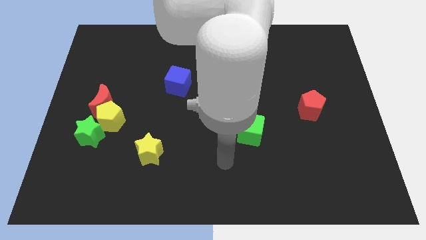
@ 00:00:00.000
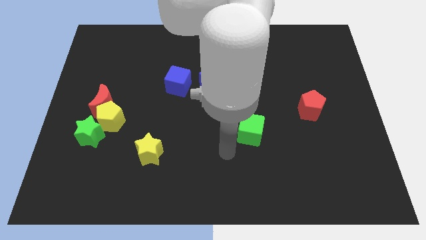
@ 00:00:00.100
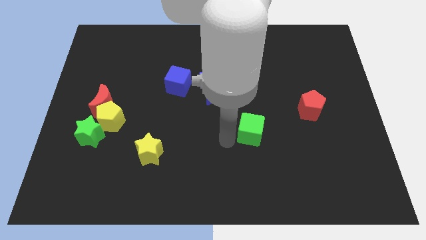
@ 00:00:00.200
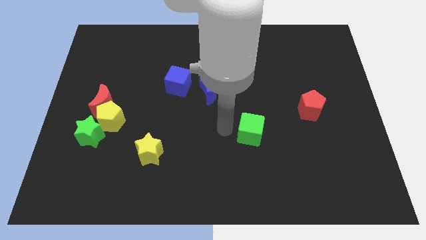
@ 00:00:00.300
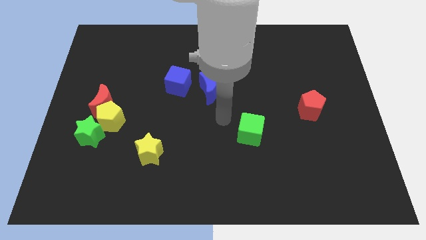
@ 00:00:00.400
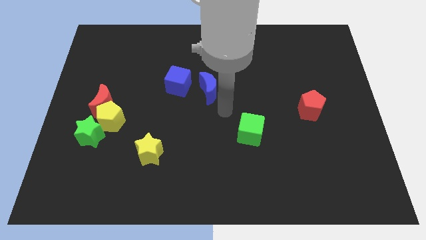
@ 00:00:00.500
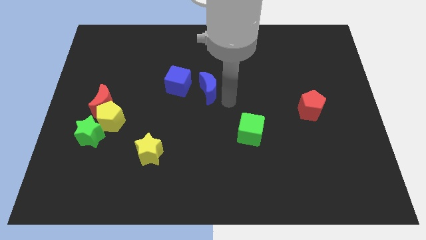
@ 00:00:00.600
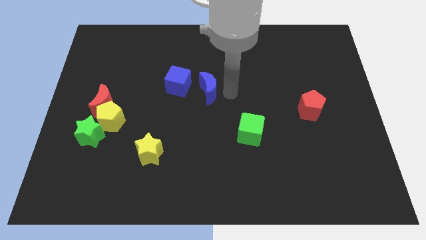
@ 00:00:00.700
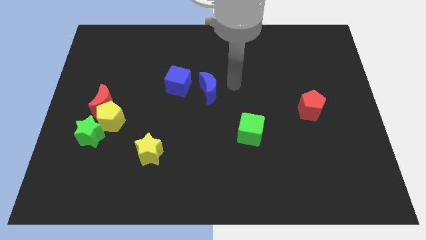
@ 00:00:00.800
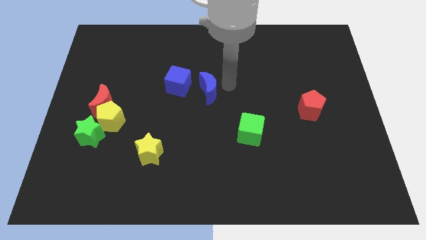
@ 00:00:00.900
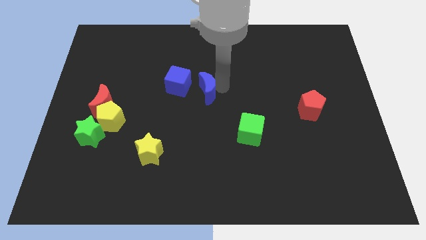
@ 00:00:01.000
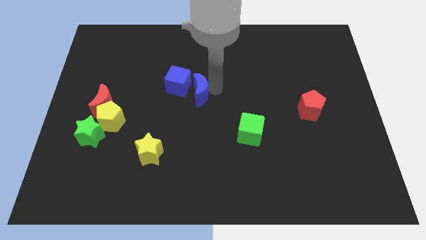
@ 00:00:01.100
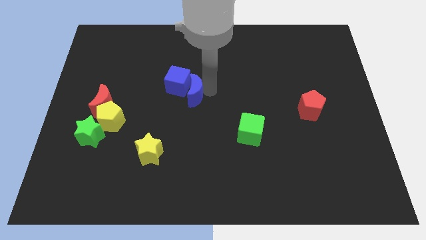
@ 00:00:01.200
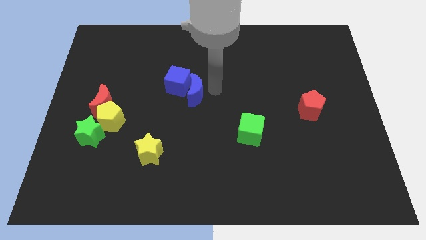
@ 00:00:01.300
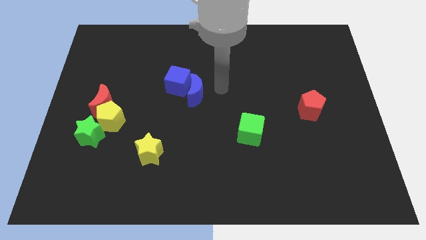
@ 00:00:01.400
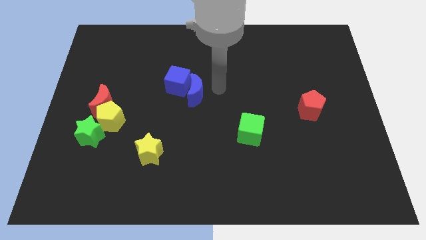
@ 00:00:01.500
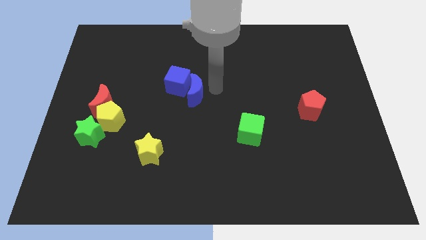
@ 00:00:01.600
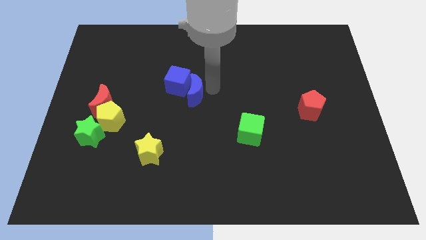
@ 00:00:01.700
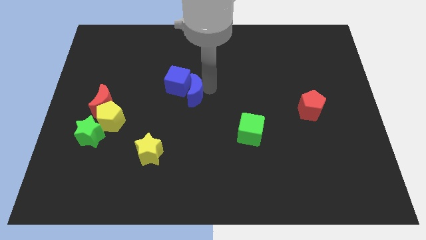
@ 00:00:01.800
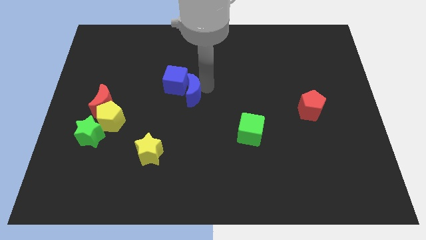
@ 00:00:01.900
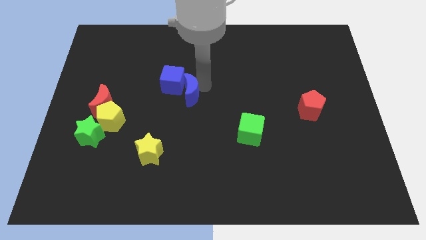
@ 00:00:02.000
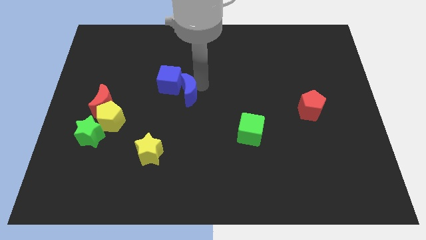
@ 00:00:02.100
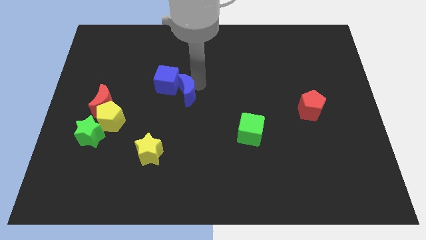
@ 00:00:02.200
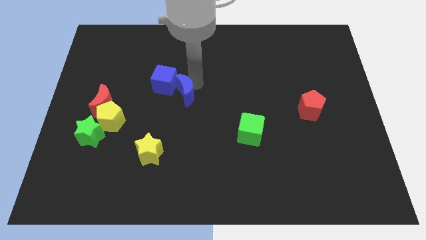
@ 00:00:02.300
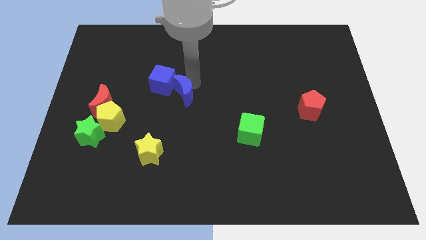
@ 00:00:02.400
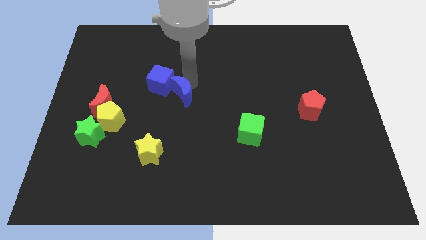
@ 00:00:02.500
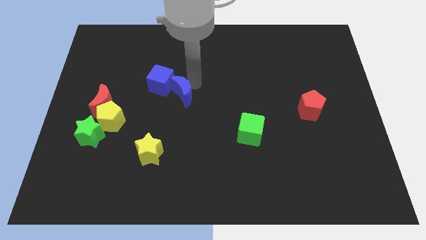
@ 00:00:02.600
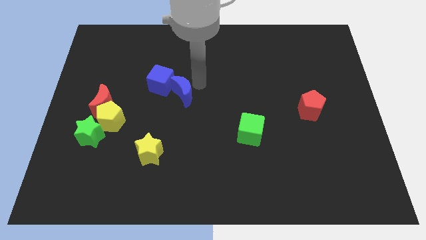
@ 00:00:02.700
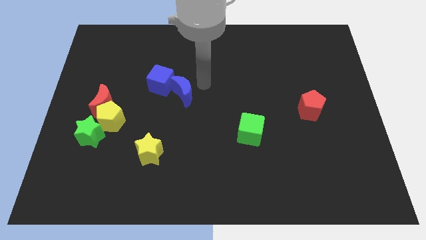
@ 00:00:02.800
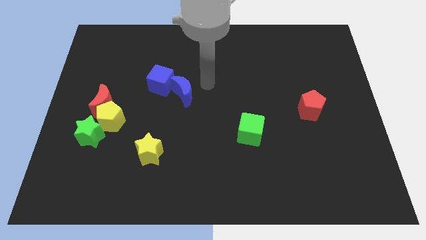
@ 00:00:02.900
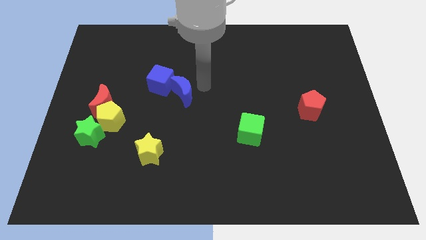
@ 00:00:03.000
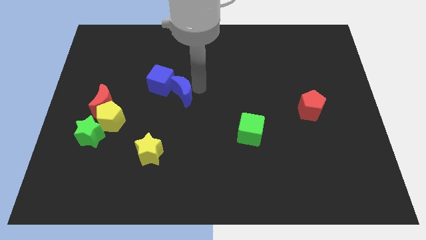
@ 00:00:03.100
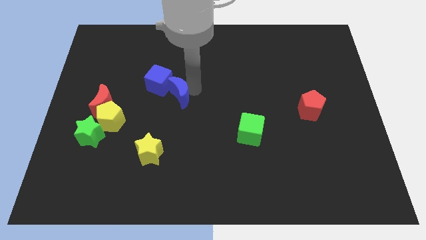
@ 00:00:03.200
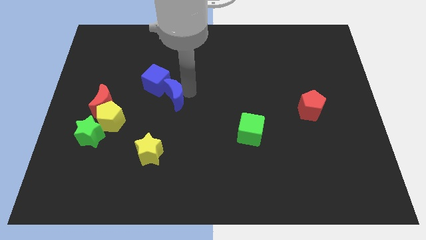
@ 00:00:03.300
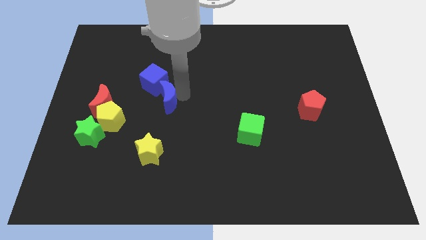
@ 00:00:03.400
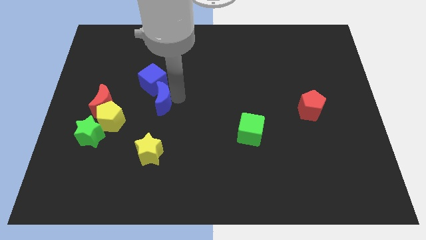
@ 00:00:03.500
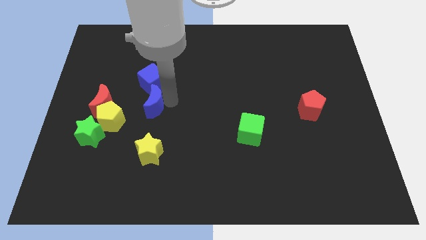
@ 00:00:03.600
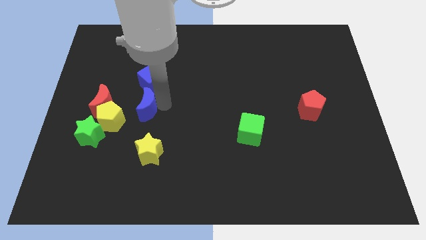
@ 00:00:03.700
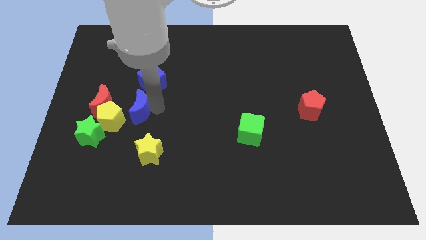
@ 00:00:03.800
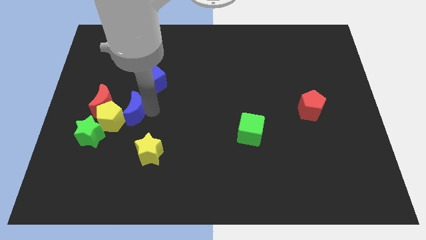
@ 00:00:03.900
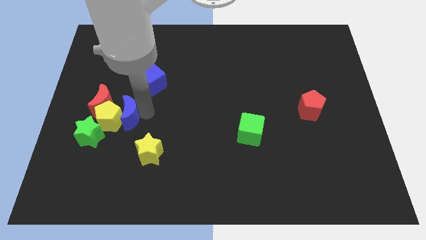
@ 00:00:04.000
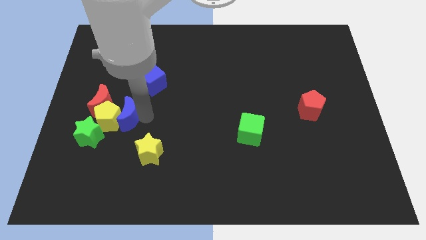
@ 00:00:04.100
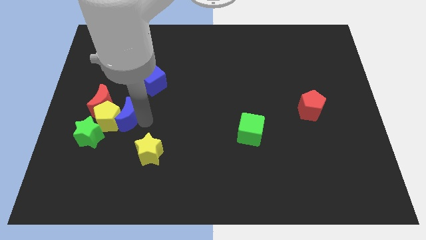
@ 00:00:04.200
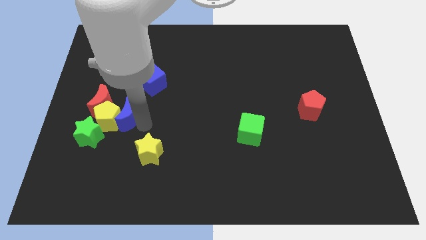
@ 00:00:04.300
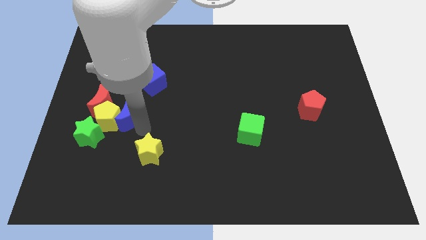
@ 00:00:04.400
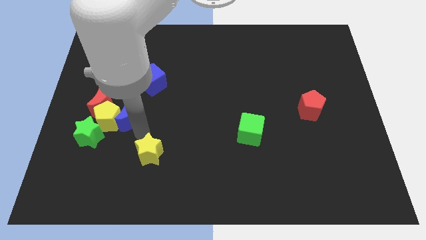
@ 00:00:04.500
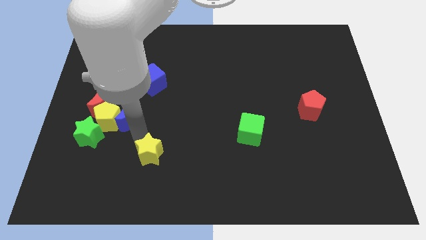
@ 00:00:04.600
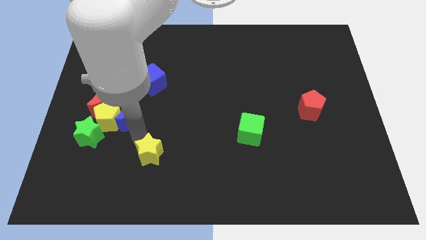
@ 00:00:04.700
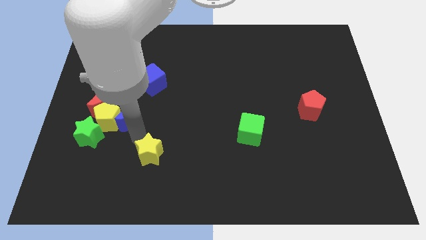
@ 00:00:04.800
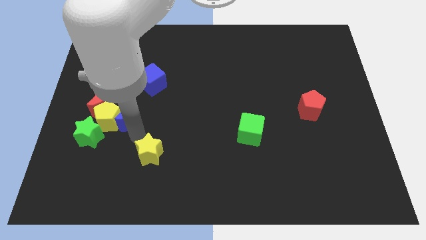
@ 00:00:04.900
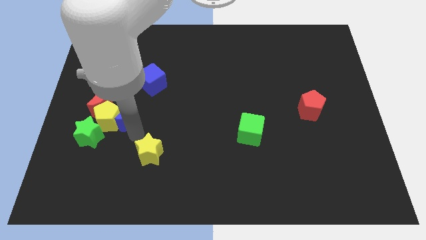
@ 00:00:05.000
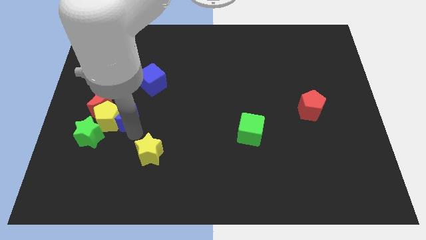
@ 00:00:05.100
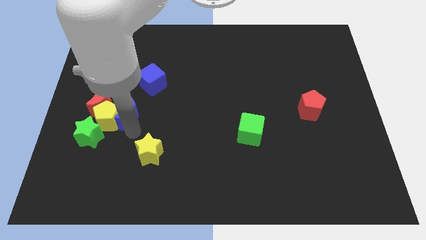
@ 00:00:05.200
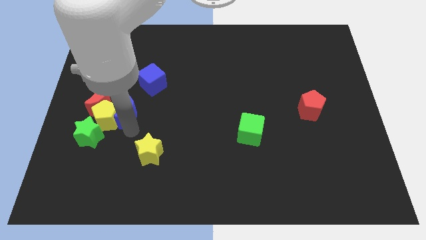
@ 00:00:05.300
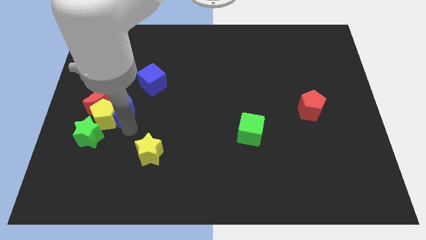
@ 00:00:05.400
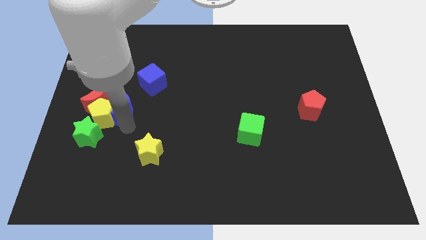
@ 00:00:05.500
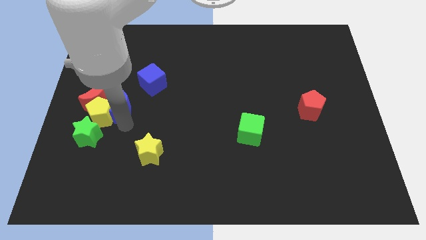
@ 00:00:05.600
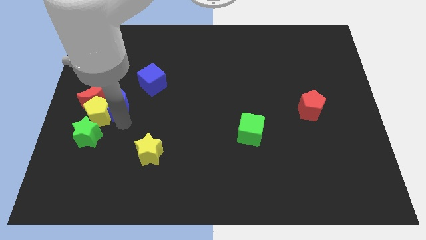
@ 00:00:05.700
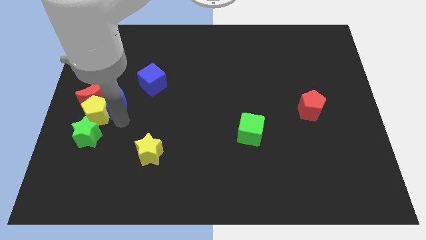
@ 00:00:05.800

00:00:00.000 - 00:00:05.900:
move the blue moon close to the red moon

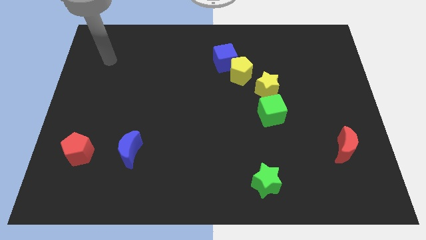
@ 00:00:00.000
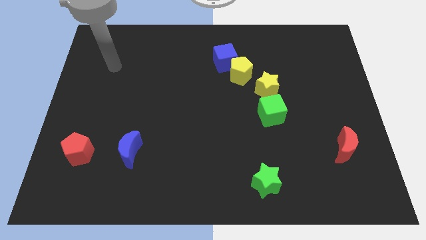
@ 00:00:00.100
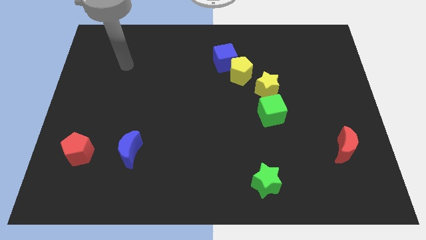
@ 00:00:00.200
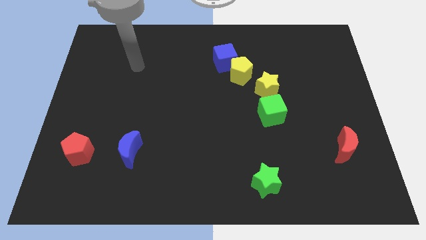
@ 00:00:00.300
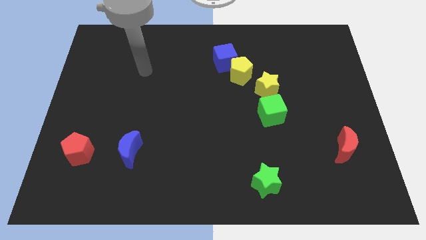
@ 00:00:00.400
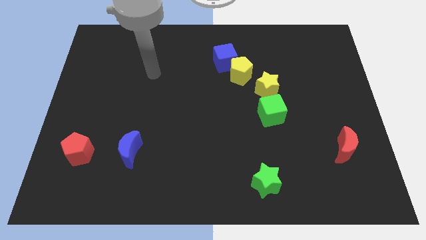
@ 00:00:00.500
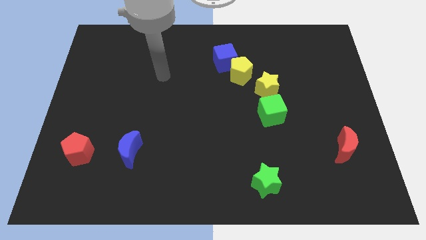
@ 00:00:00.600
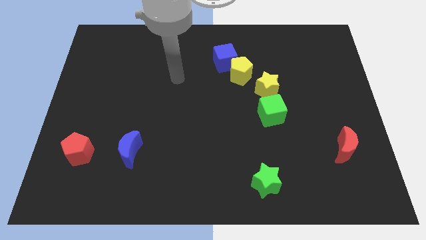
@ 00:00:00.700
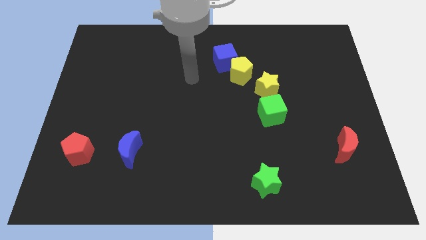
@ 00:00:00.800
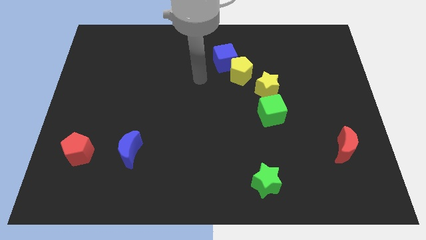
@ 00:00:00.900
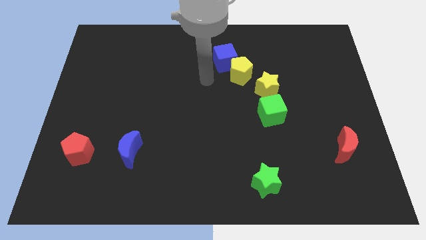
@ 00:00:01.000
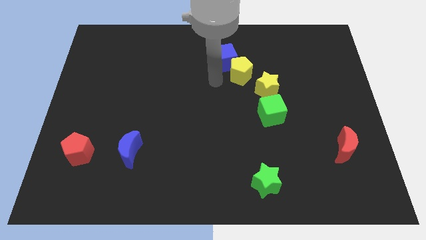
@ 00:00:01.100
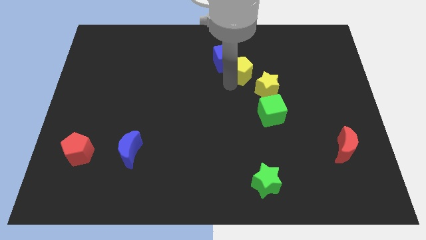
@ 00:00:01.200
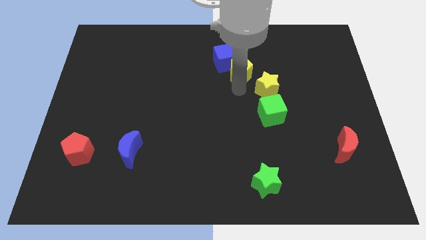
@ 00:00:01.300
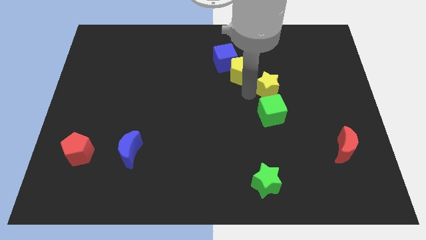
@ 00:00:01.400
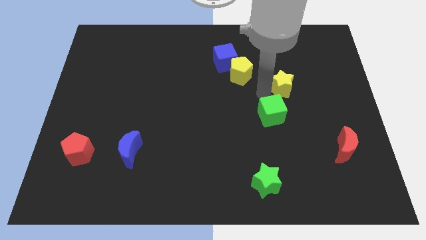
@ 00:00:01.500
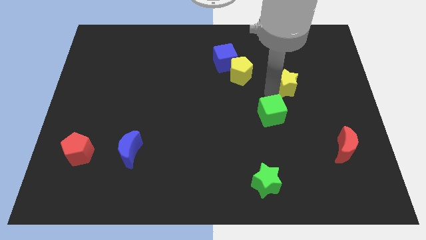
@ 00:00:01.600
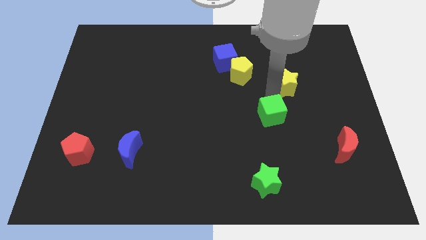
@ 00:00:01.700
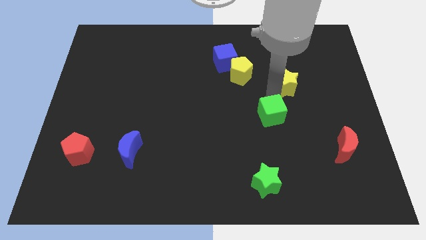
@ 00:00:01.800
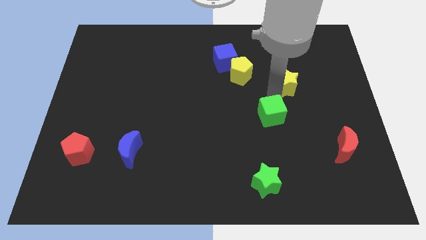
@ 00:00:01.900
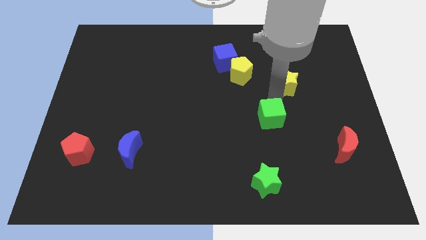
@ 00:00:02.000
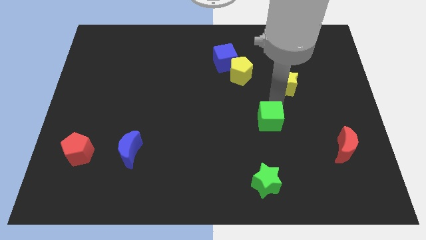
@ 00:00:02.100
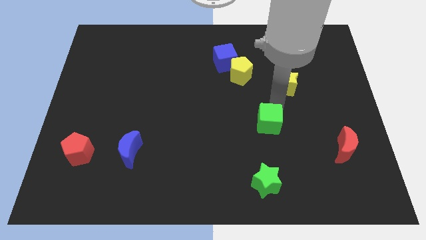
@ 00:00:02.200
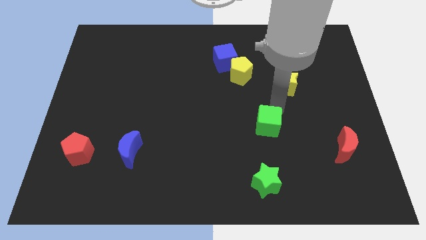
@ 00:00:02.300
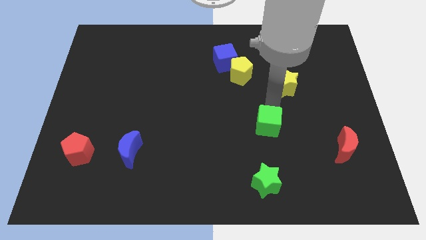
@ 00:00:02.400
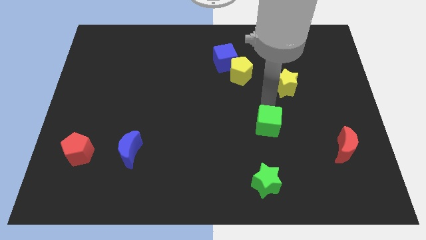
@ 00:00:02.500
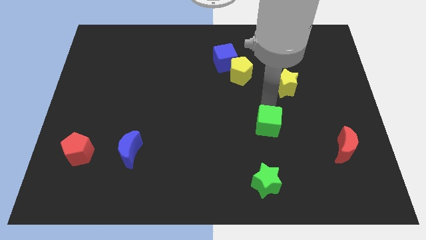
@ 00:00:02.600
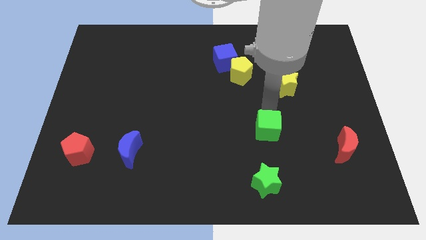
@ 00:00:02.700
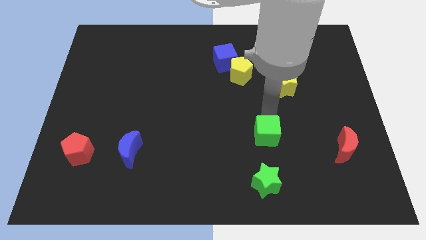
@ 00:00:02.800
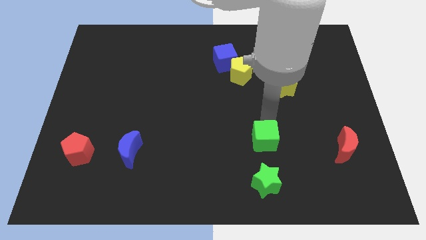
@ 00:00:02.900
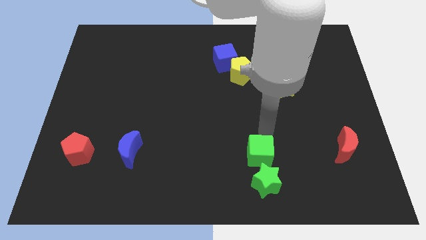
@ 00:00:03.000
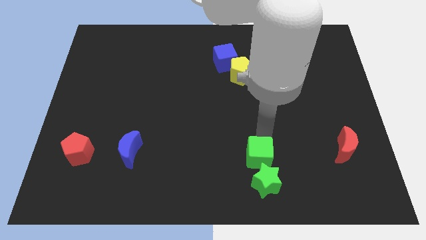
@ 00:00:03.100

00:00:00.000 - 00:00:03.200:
move the green cube close to the green star
